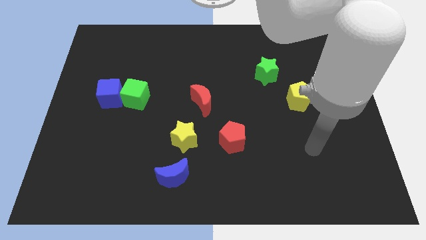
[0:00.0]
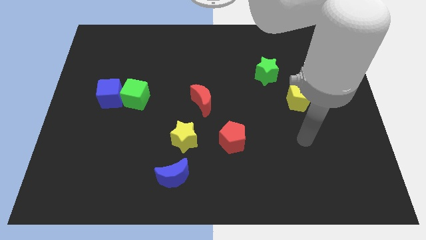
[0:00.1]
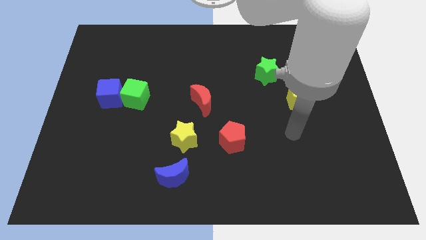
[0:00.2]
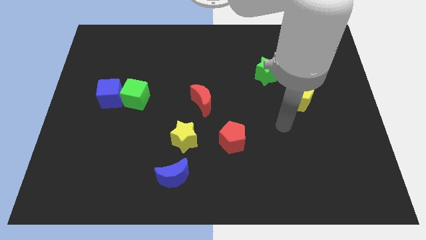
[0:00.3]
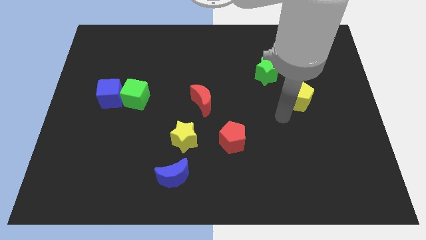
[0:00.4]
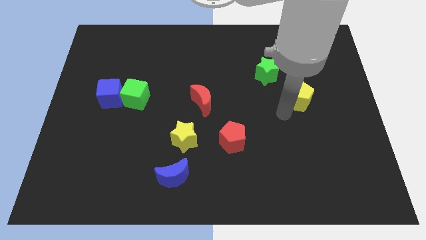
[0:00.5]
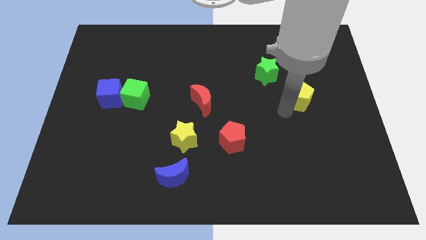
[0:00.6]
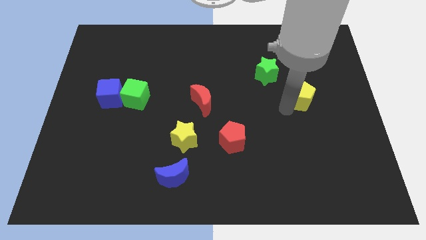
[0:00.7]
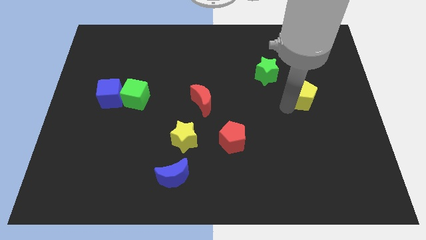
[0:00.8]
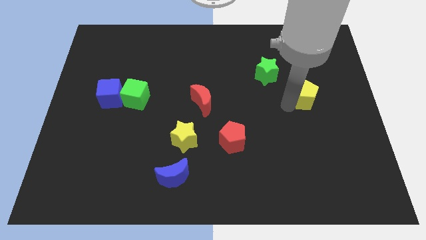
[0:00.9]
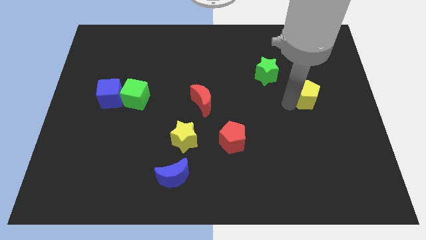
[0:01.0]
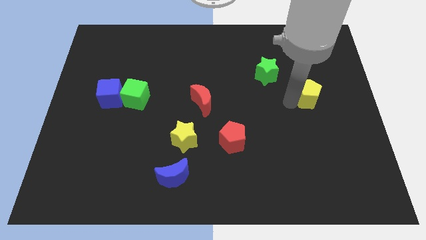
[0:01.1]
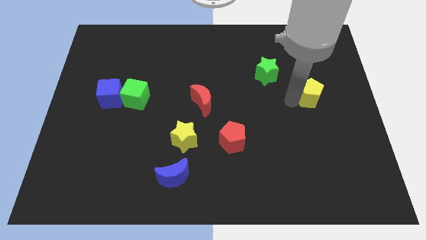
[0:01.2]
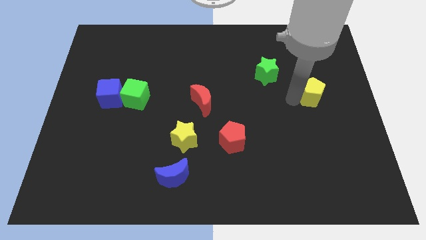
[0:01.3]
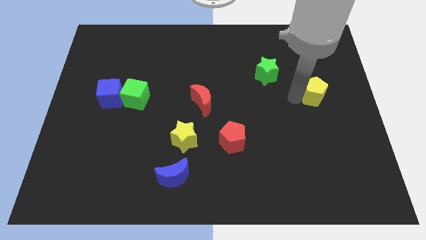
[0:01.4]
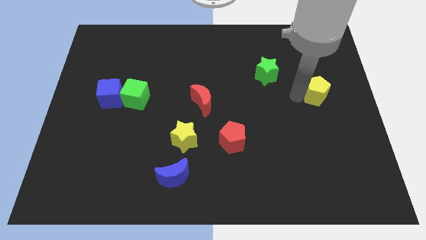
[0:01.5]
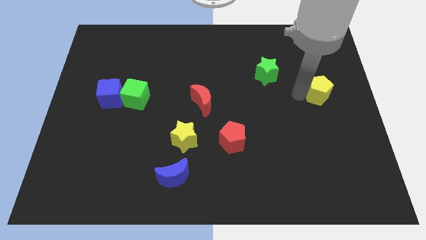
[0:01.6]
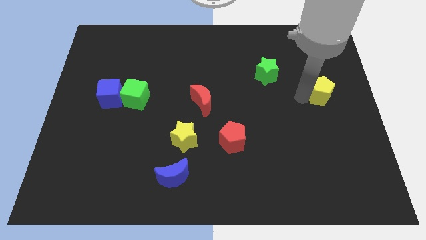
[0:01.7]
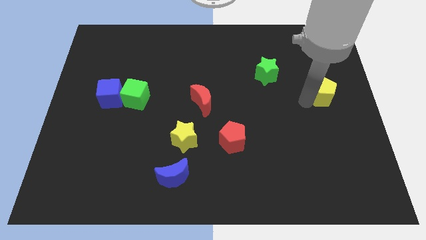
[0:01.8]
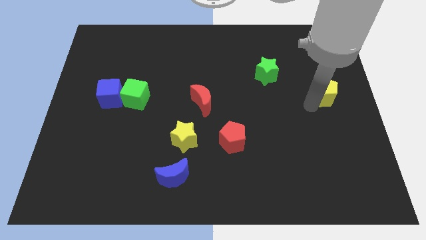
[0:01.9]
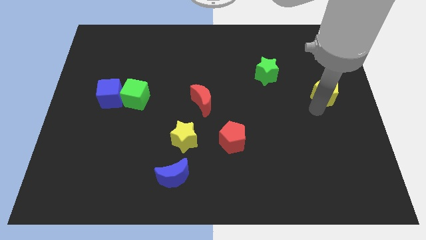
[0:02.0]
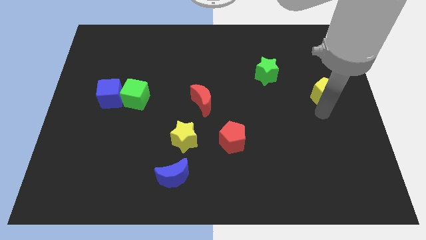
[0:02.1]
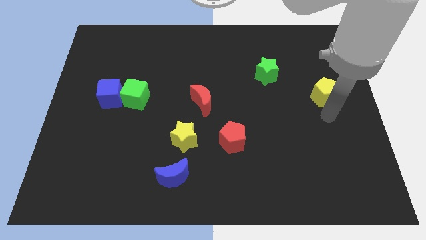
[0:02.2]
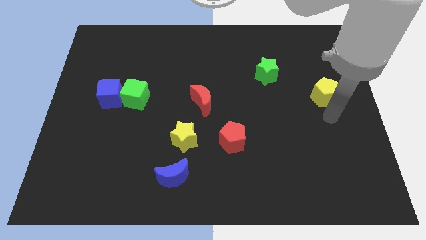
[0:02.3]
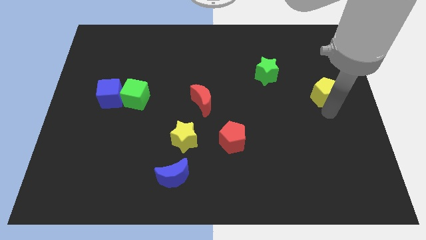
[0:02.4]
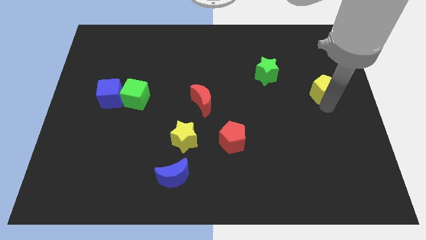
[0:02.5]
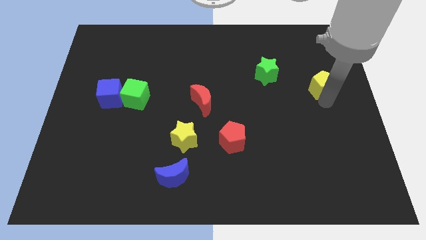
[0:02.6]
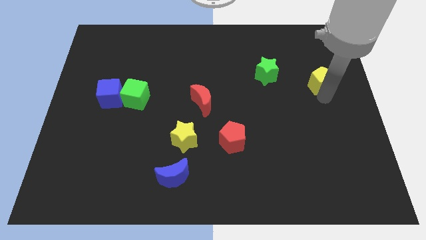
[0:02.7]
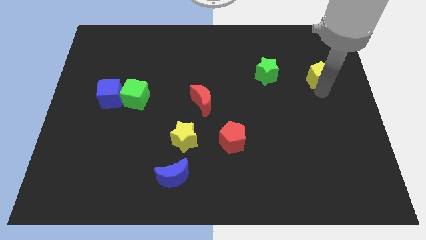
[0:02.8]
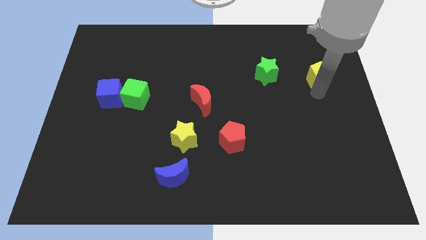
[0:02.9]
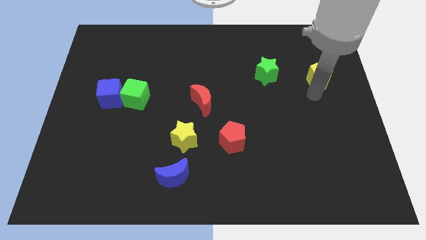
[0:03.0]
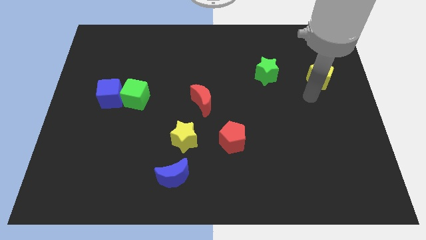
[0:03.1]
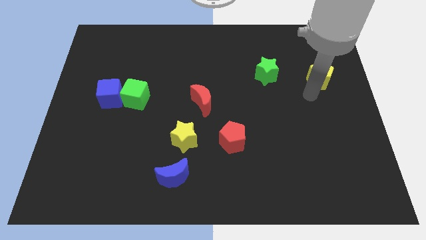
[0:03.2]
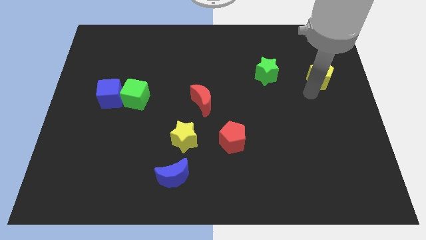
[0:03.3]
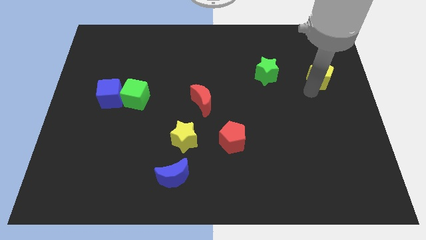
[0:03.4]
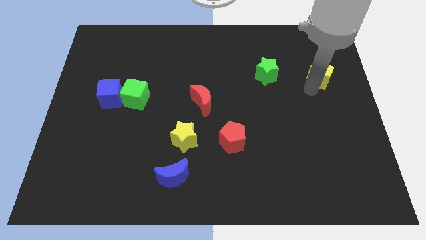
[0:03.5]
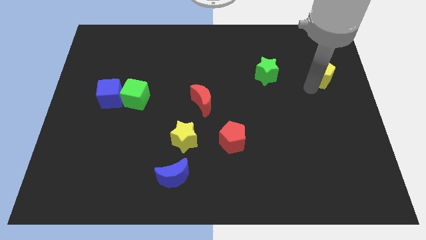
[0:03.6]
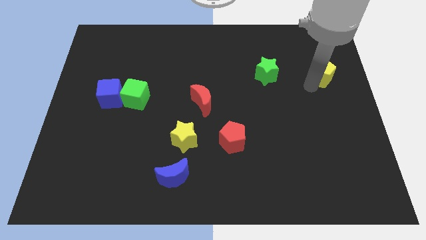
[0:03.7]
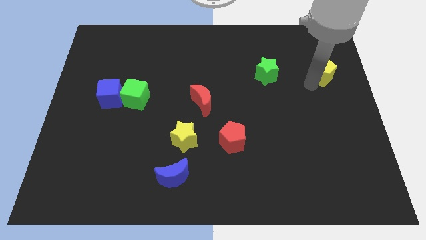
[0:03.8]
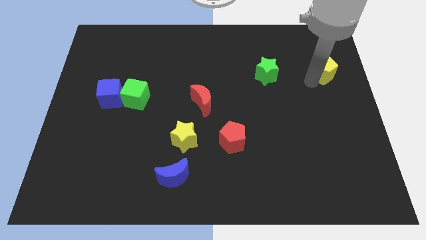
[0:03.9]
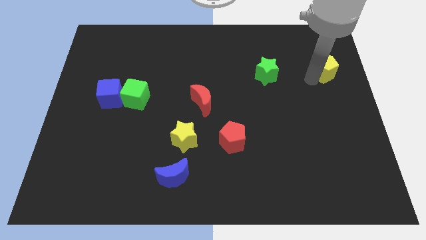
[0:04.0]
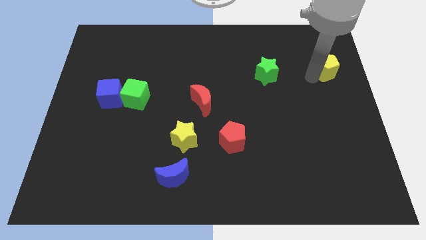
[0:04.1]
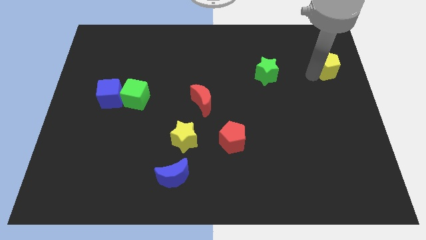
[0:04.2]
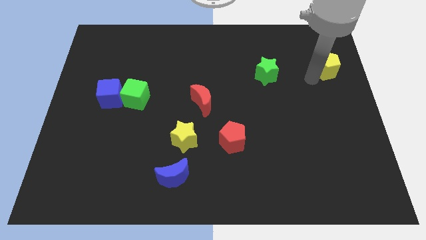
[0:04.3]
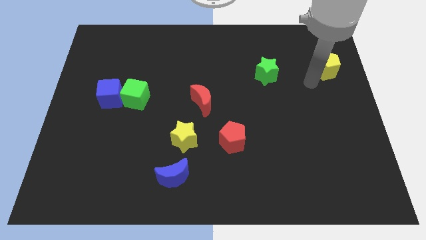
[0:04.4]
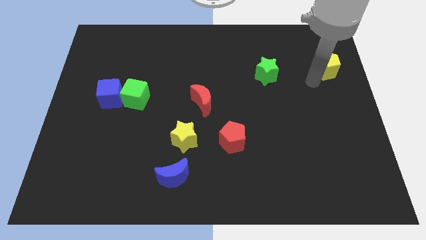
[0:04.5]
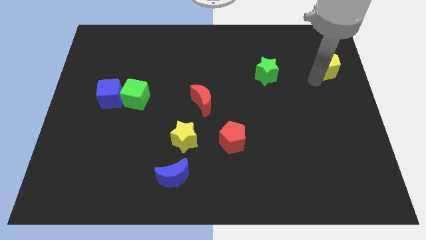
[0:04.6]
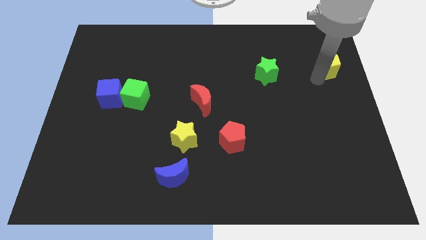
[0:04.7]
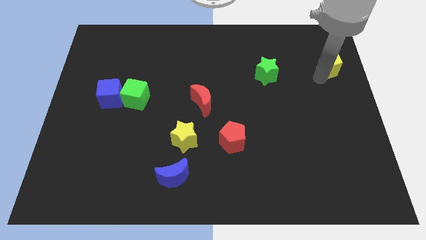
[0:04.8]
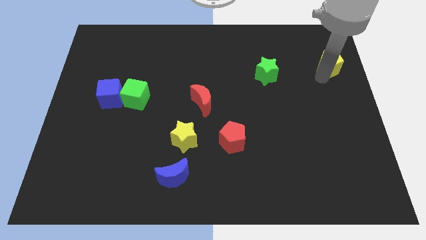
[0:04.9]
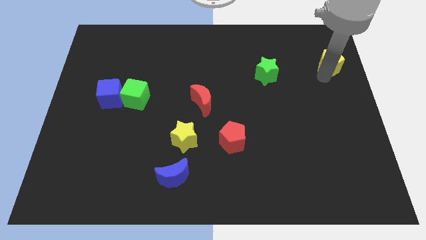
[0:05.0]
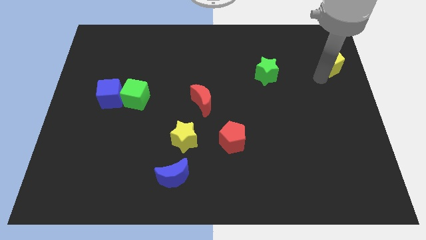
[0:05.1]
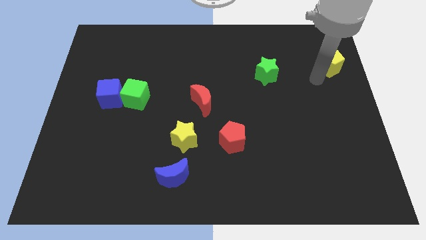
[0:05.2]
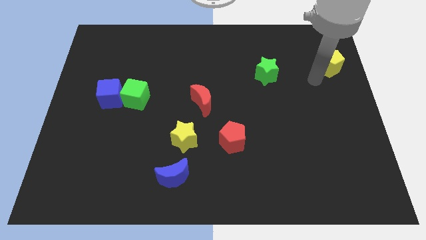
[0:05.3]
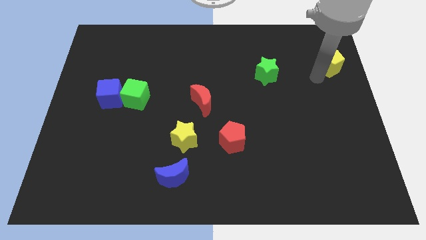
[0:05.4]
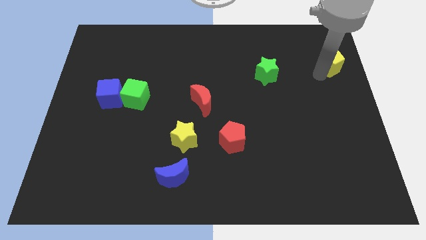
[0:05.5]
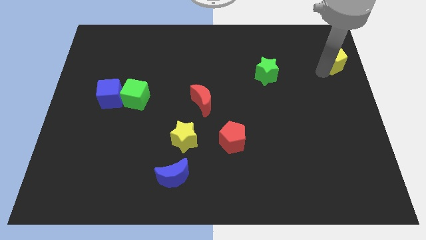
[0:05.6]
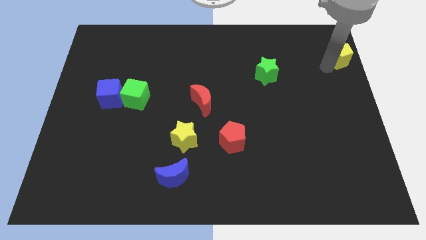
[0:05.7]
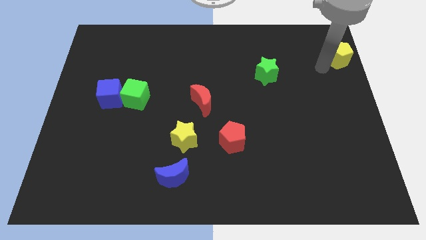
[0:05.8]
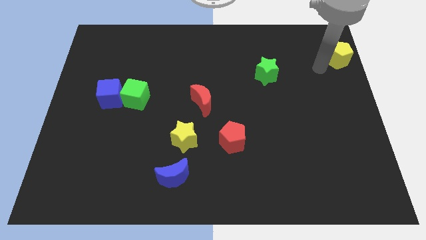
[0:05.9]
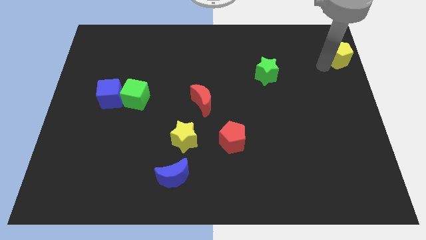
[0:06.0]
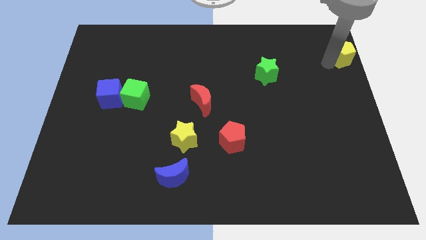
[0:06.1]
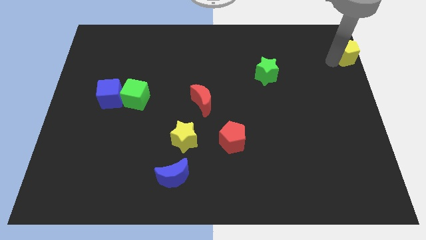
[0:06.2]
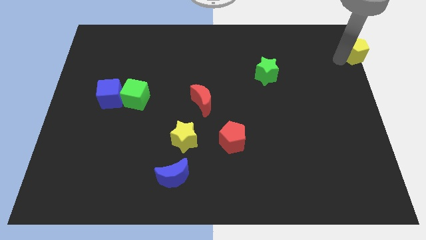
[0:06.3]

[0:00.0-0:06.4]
move the yellow pentagon to the top right of the board
